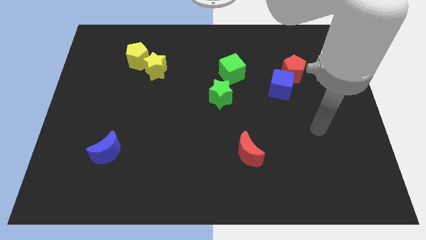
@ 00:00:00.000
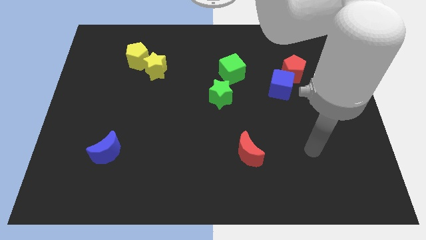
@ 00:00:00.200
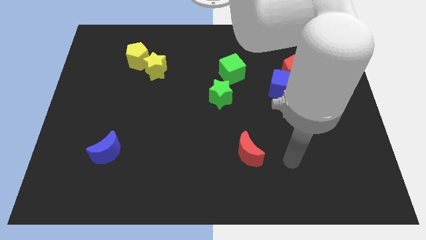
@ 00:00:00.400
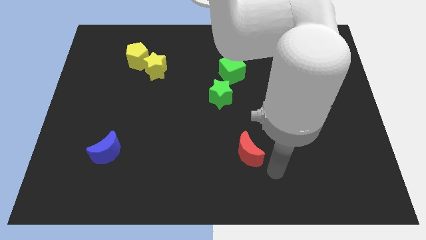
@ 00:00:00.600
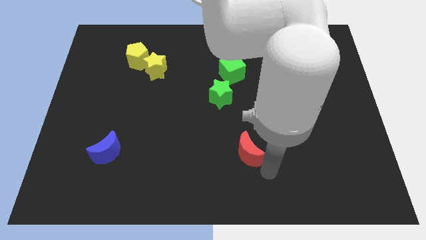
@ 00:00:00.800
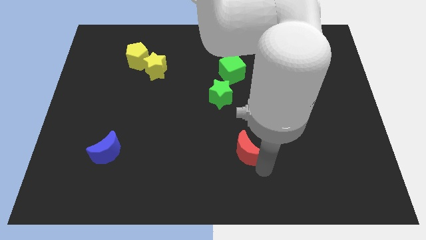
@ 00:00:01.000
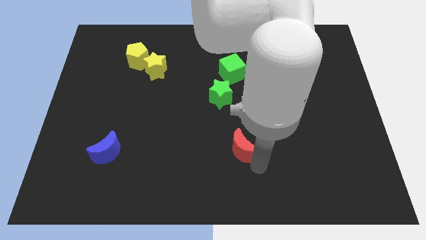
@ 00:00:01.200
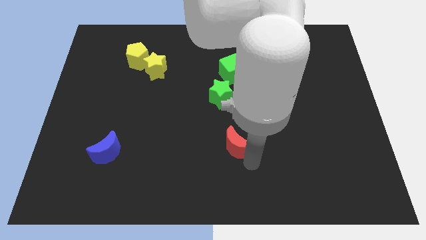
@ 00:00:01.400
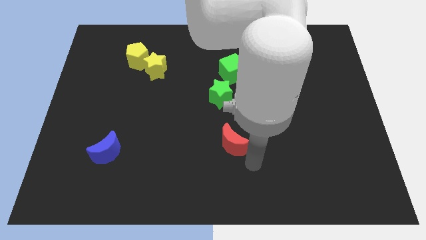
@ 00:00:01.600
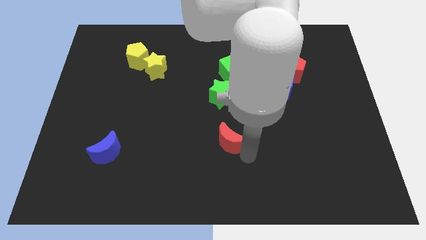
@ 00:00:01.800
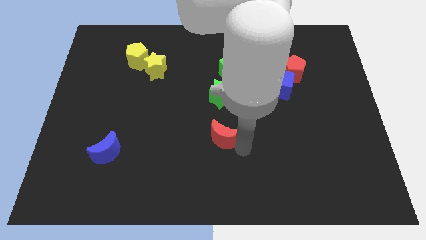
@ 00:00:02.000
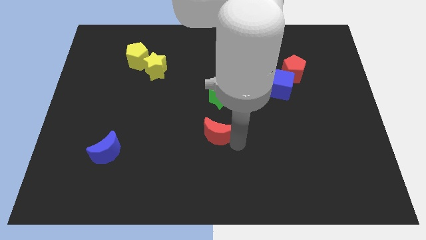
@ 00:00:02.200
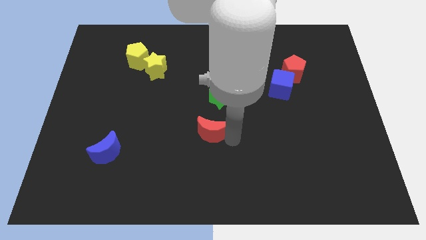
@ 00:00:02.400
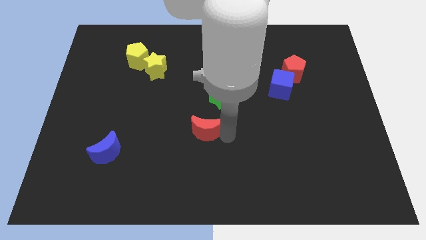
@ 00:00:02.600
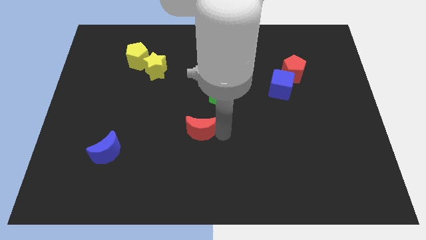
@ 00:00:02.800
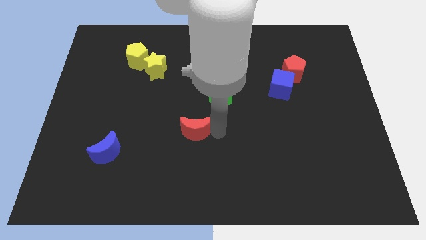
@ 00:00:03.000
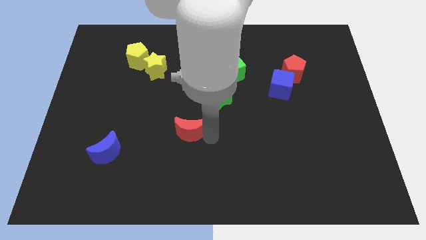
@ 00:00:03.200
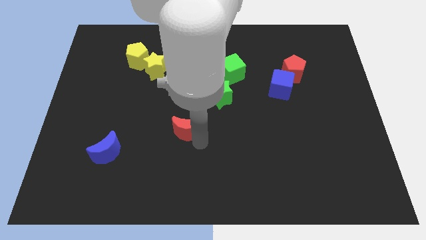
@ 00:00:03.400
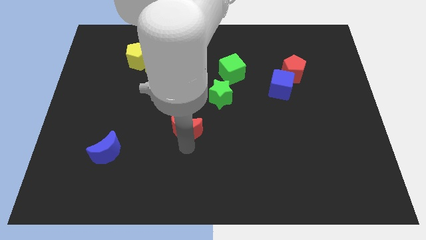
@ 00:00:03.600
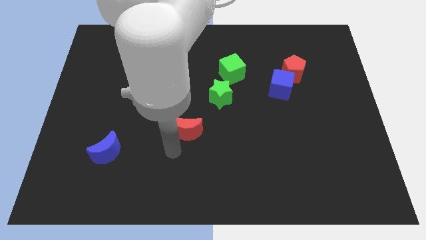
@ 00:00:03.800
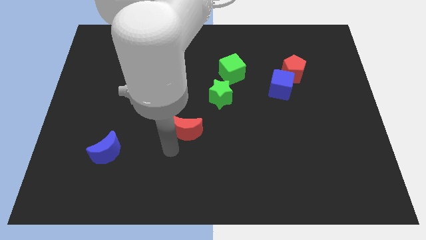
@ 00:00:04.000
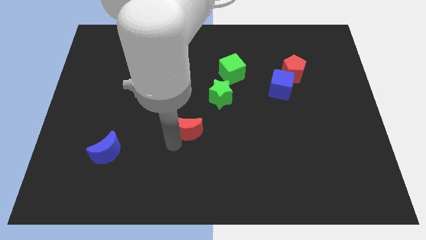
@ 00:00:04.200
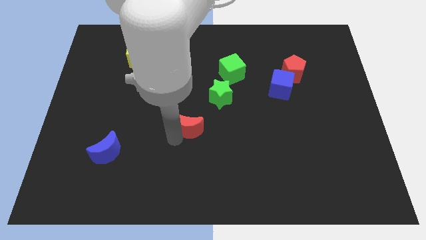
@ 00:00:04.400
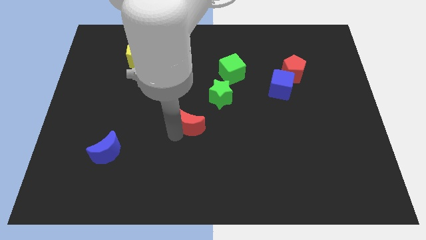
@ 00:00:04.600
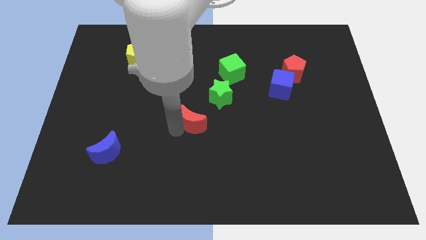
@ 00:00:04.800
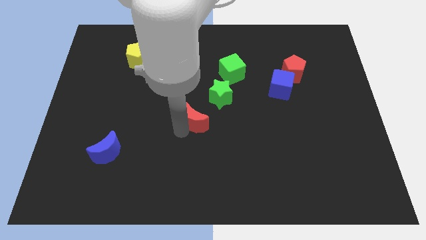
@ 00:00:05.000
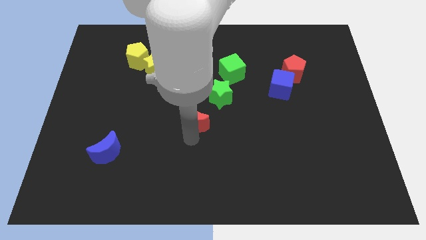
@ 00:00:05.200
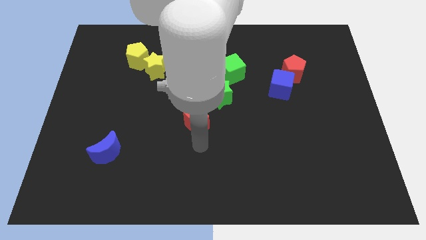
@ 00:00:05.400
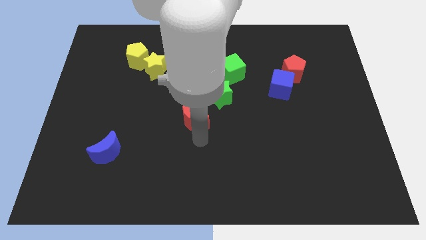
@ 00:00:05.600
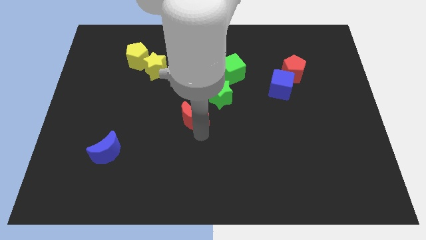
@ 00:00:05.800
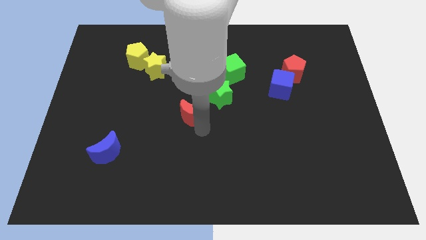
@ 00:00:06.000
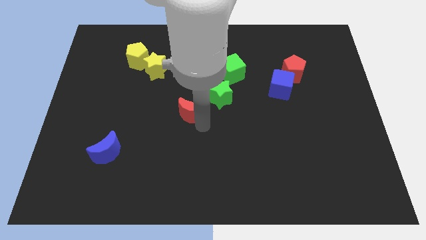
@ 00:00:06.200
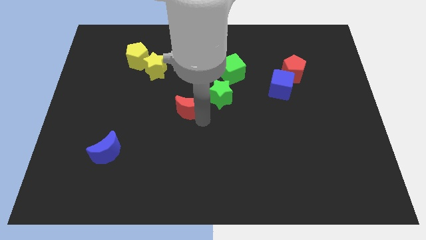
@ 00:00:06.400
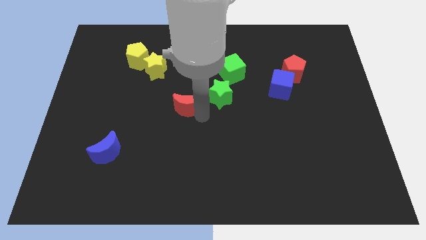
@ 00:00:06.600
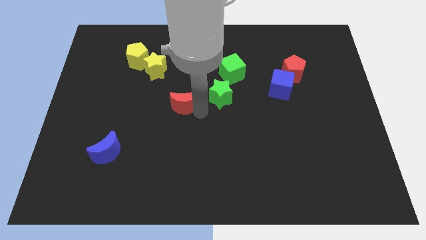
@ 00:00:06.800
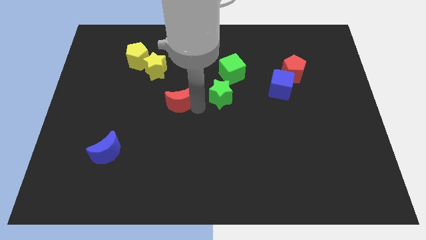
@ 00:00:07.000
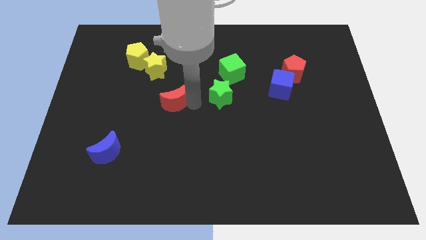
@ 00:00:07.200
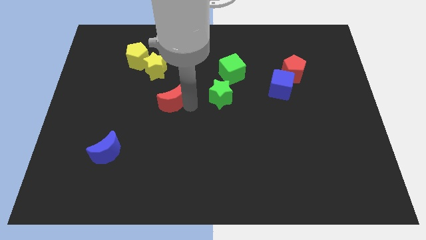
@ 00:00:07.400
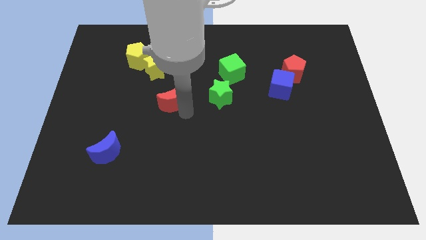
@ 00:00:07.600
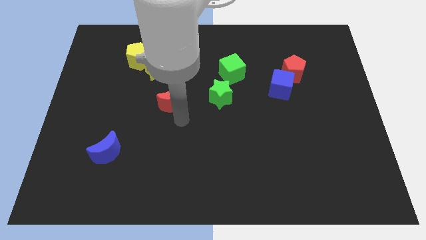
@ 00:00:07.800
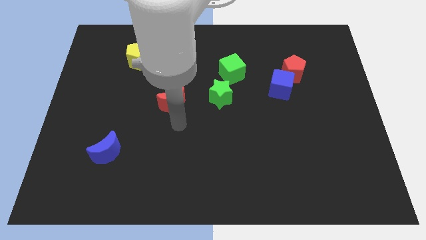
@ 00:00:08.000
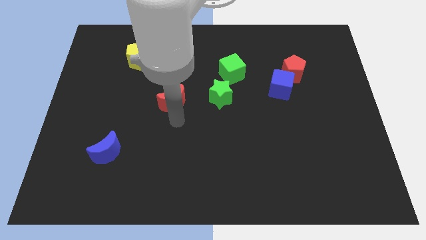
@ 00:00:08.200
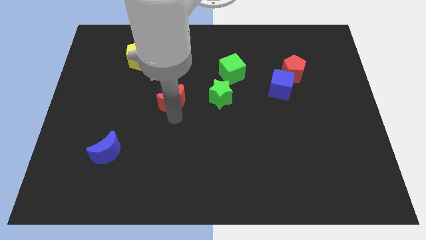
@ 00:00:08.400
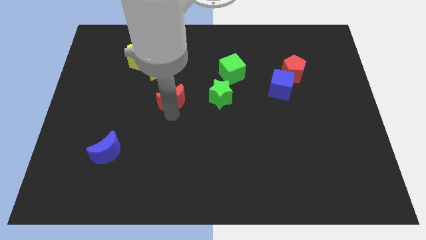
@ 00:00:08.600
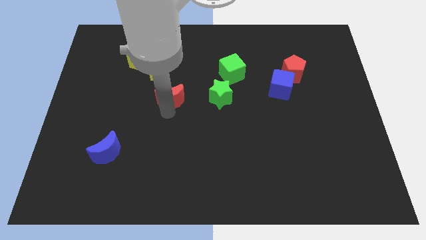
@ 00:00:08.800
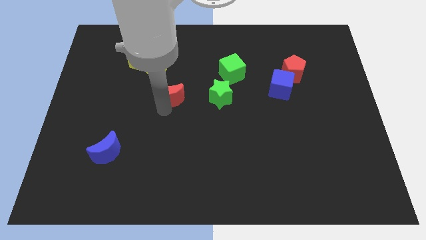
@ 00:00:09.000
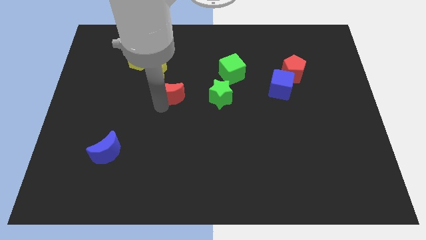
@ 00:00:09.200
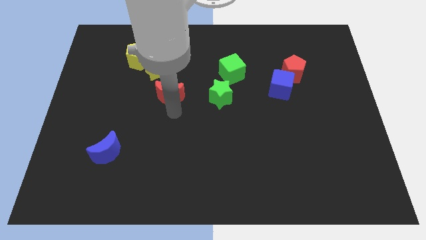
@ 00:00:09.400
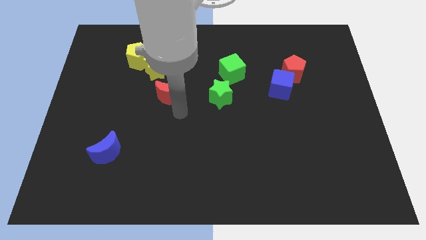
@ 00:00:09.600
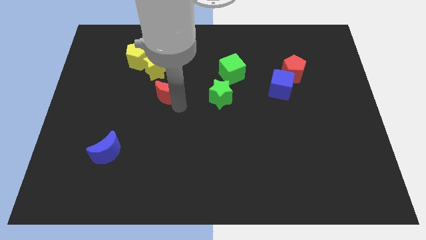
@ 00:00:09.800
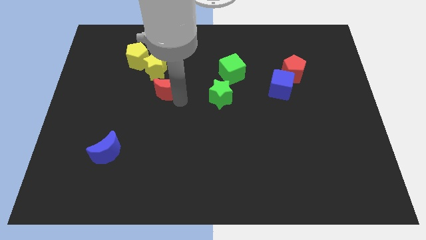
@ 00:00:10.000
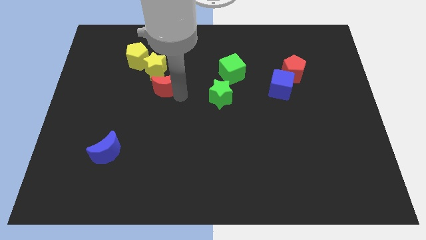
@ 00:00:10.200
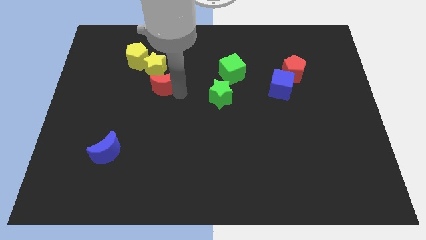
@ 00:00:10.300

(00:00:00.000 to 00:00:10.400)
put the red moon to the bottom right side of the yellow pentagon

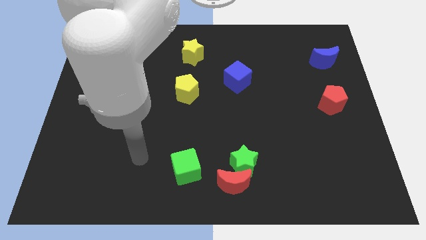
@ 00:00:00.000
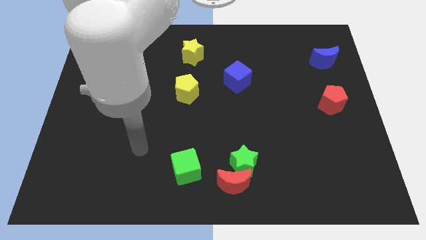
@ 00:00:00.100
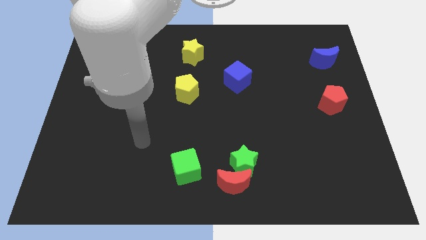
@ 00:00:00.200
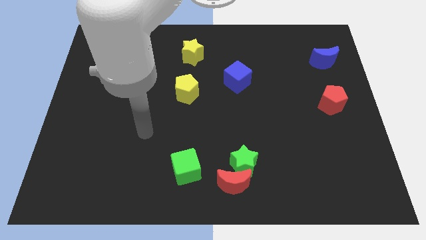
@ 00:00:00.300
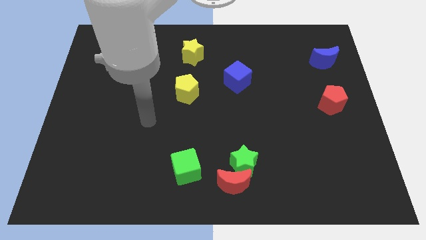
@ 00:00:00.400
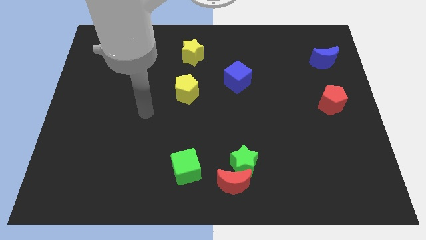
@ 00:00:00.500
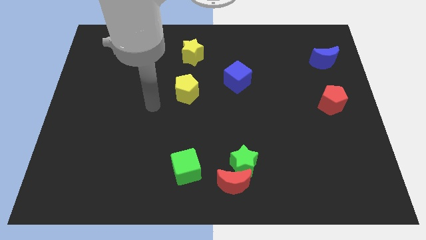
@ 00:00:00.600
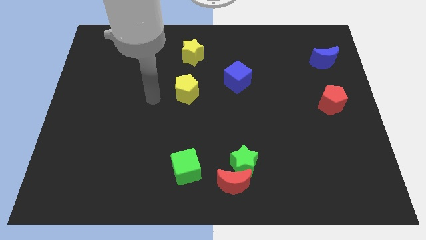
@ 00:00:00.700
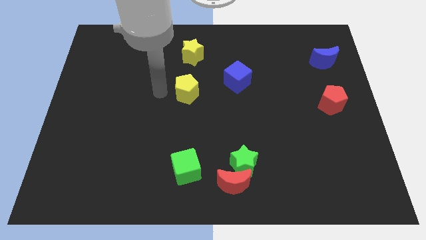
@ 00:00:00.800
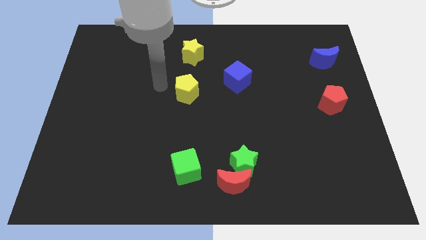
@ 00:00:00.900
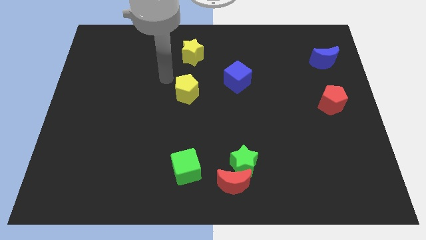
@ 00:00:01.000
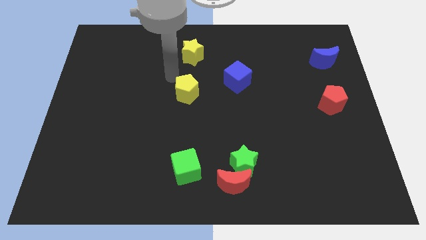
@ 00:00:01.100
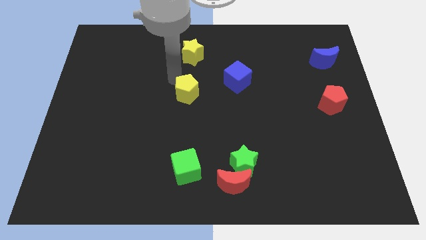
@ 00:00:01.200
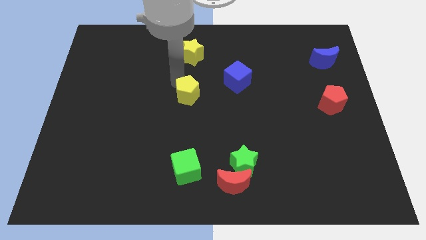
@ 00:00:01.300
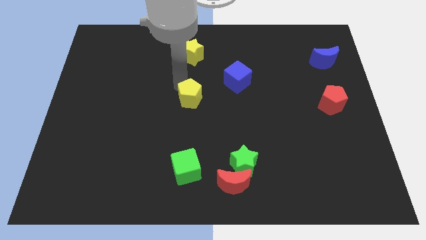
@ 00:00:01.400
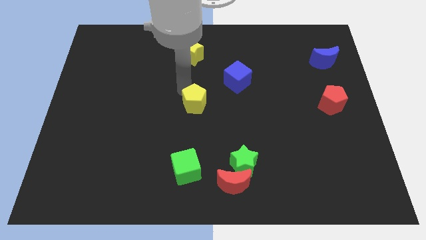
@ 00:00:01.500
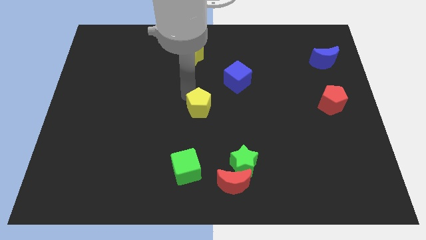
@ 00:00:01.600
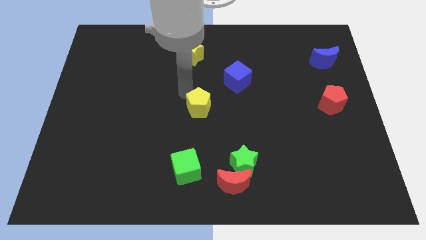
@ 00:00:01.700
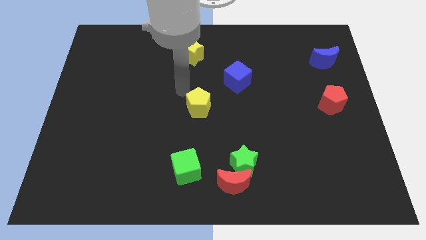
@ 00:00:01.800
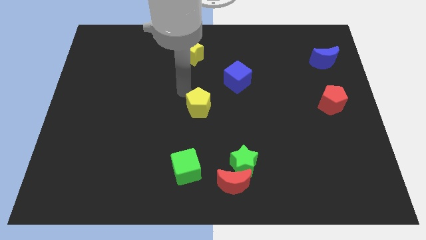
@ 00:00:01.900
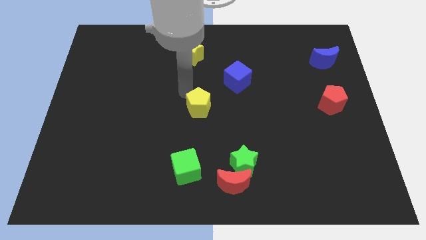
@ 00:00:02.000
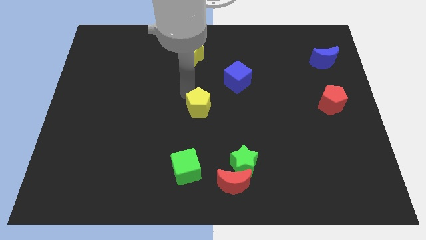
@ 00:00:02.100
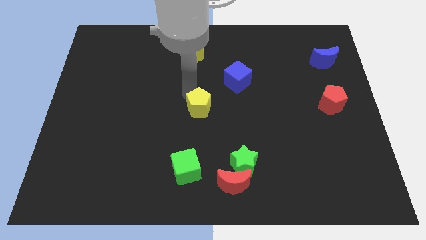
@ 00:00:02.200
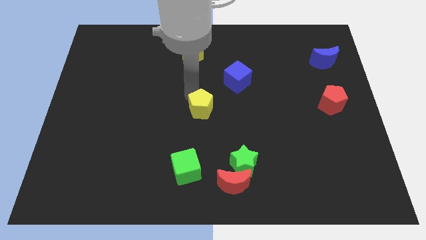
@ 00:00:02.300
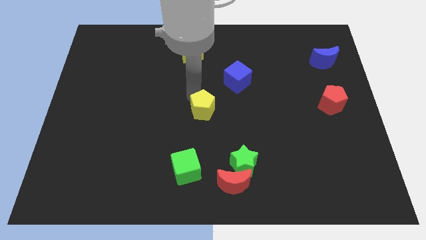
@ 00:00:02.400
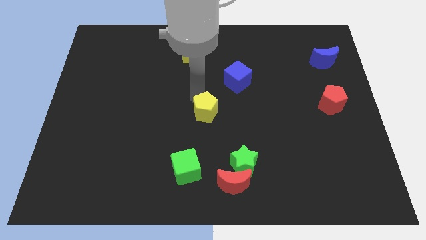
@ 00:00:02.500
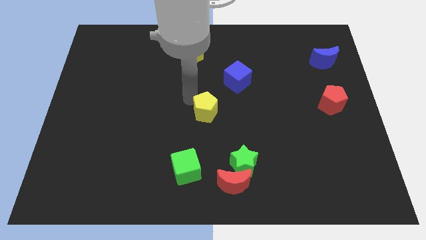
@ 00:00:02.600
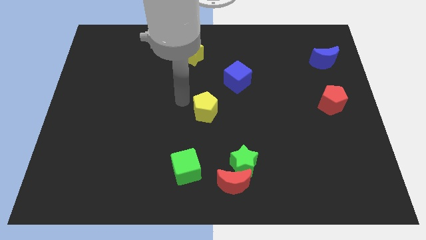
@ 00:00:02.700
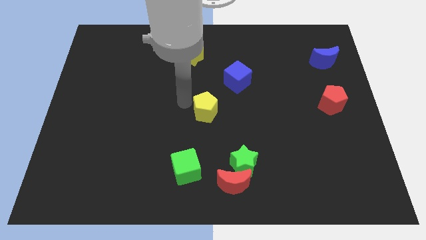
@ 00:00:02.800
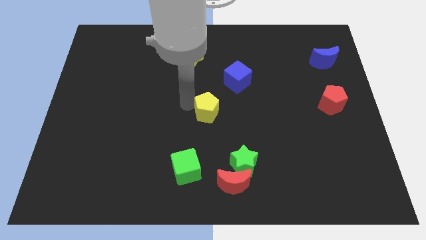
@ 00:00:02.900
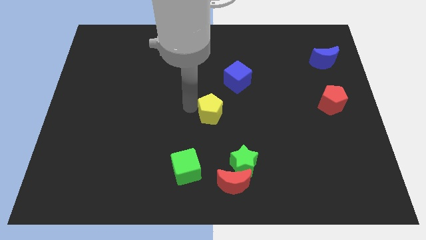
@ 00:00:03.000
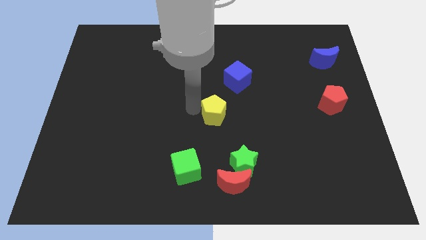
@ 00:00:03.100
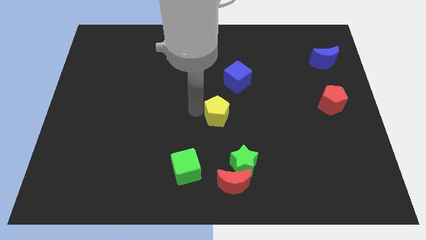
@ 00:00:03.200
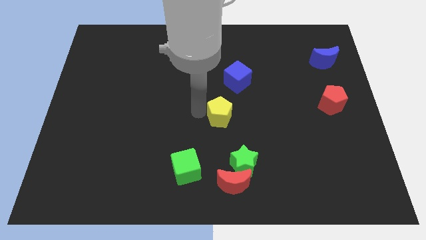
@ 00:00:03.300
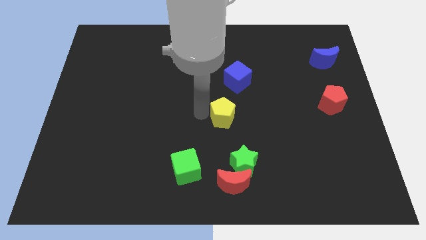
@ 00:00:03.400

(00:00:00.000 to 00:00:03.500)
slide the yellow pentagon to the top of the green star
